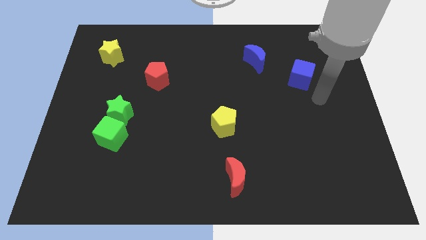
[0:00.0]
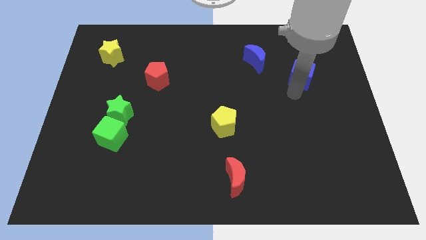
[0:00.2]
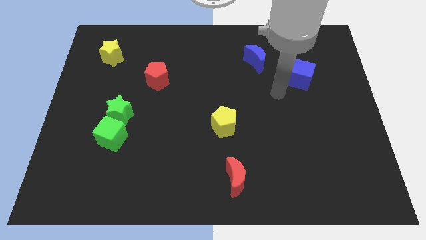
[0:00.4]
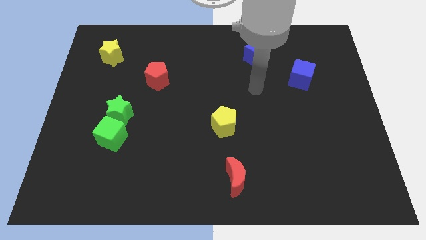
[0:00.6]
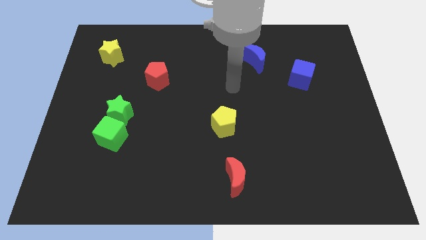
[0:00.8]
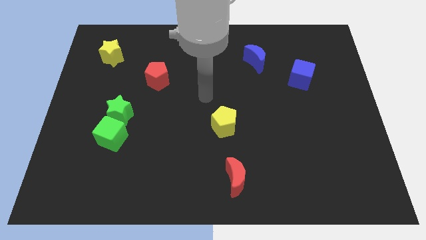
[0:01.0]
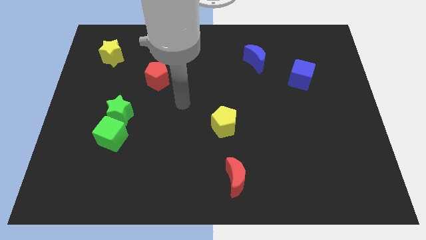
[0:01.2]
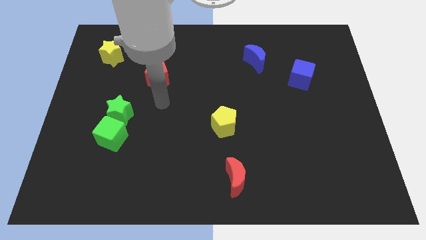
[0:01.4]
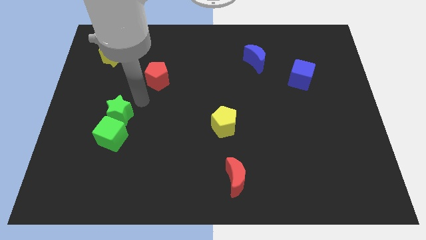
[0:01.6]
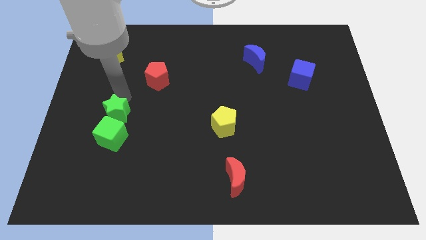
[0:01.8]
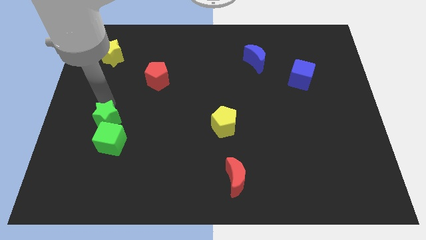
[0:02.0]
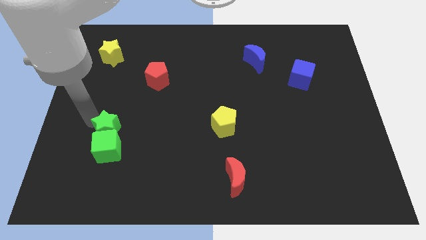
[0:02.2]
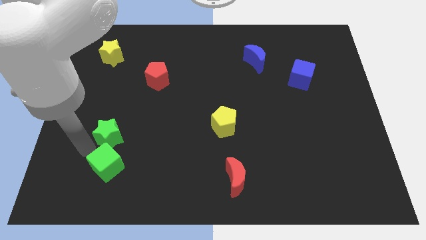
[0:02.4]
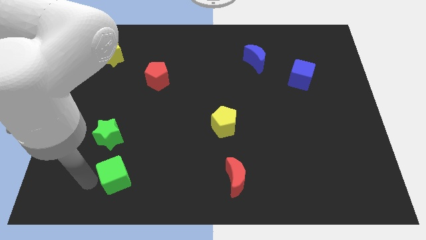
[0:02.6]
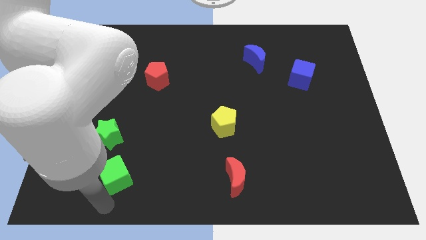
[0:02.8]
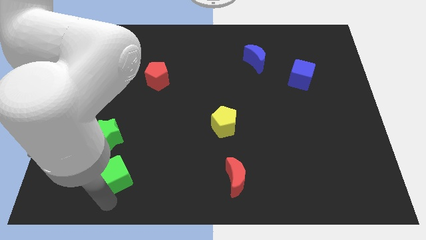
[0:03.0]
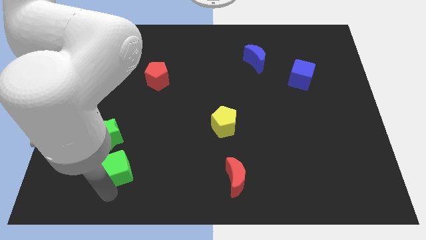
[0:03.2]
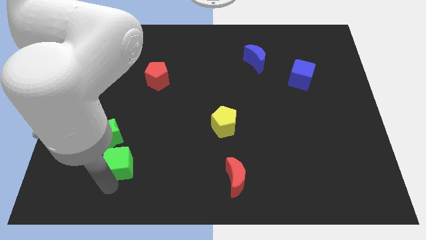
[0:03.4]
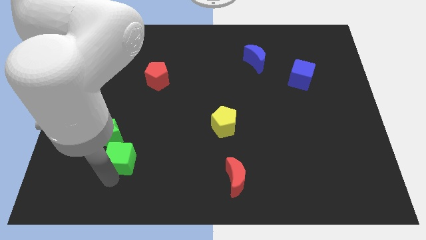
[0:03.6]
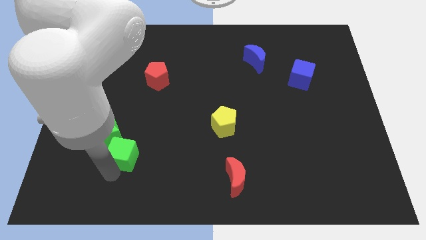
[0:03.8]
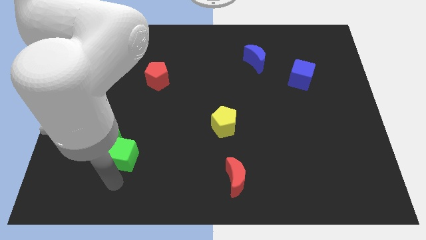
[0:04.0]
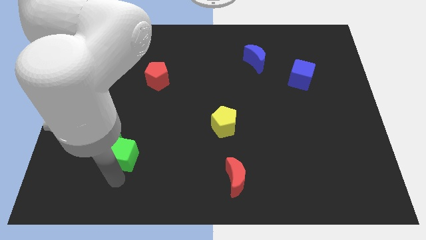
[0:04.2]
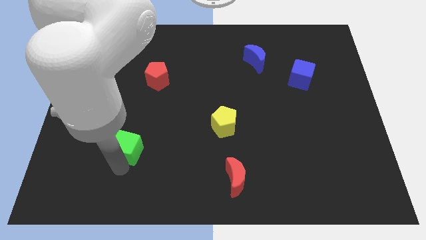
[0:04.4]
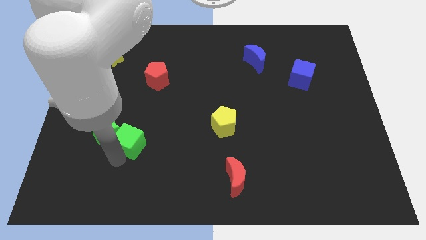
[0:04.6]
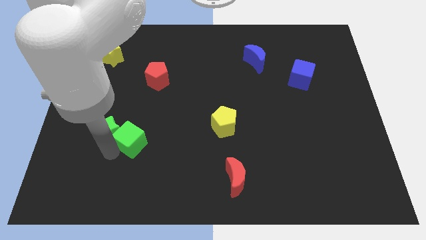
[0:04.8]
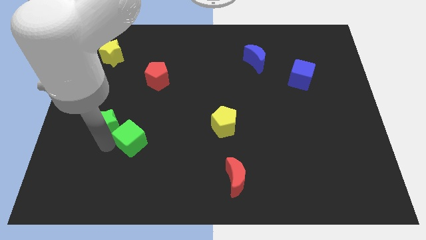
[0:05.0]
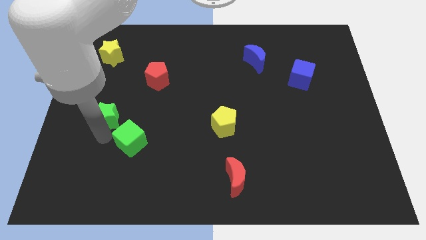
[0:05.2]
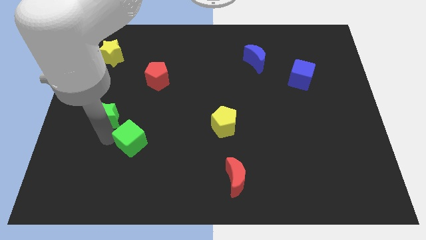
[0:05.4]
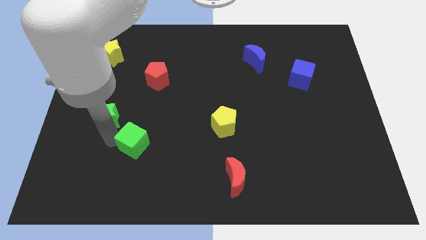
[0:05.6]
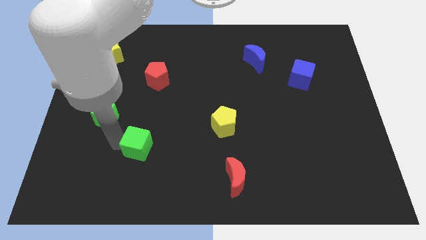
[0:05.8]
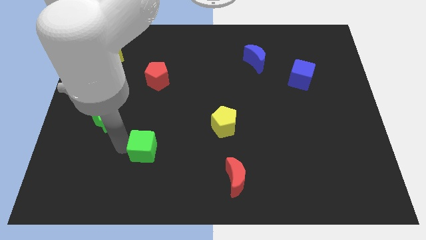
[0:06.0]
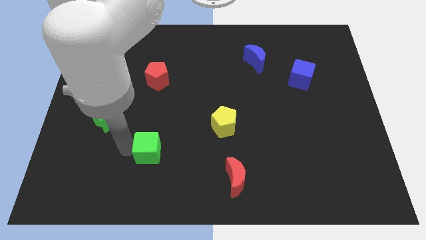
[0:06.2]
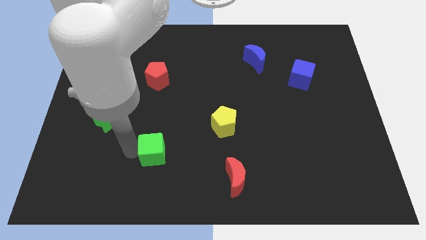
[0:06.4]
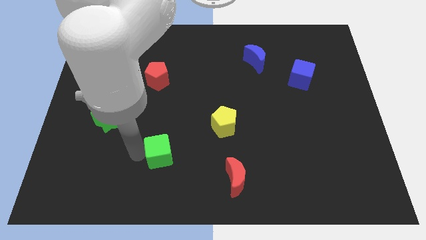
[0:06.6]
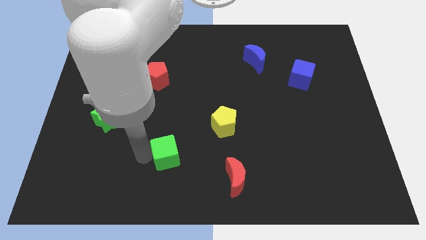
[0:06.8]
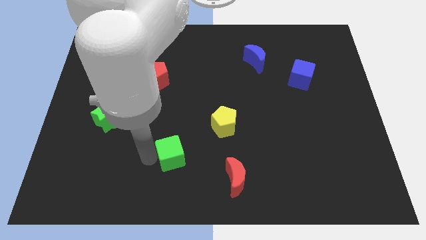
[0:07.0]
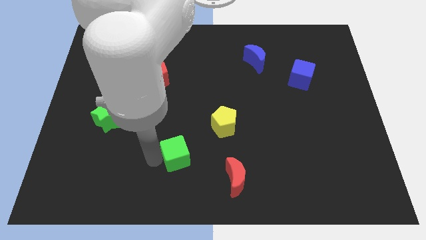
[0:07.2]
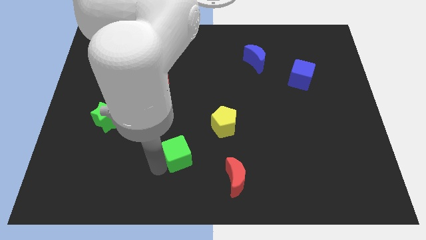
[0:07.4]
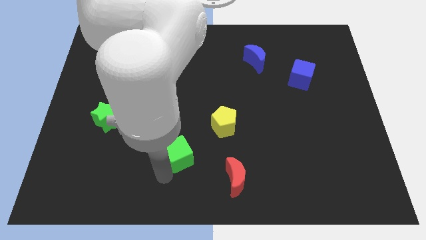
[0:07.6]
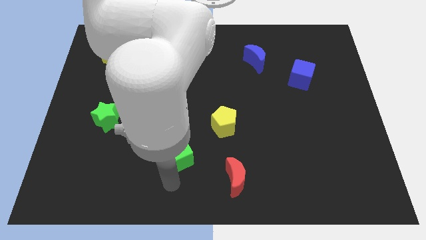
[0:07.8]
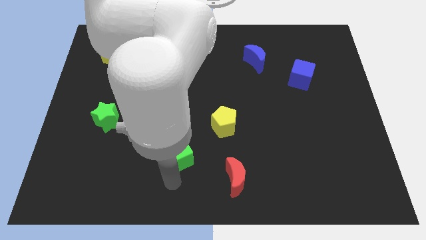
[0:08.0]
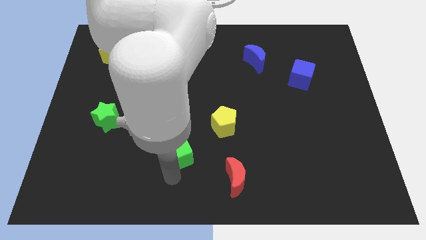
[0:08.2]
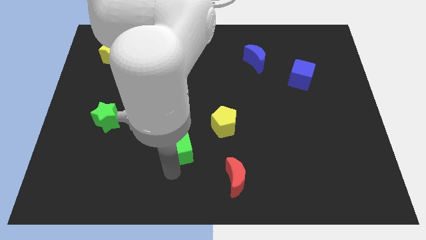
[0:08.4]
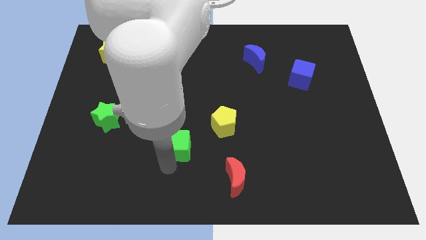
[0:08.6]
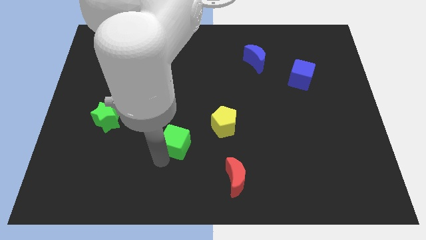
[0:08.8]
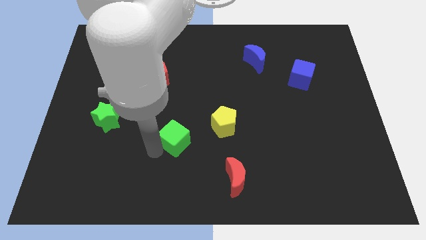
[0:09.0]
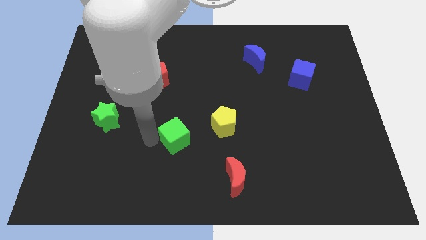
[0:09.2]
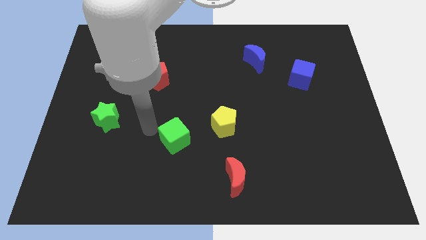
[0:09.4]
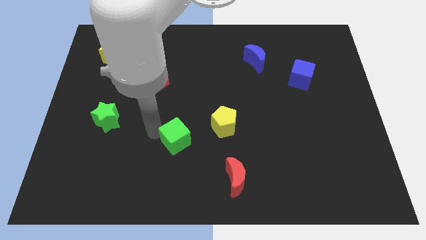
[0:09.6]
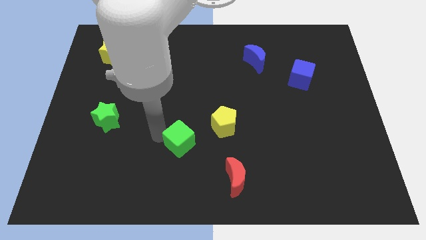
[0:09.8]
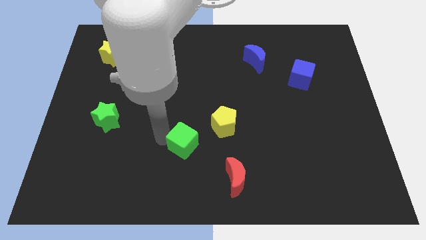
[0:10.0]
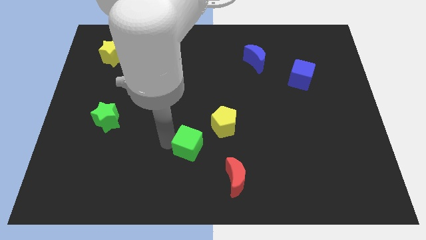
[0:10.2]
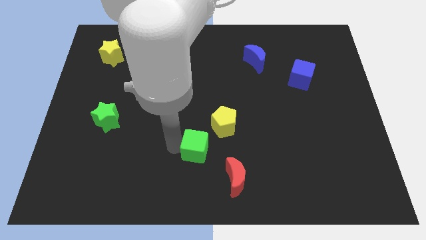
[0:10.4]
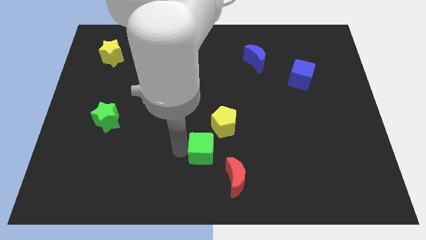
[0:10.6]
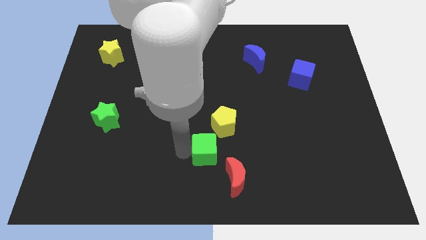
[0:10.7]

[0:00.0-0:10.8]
push the green cube to the right

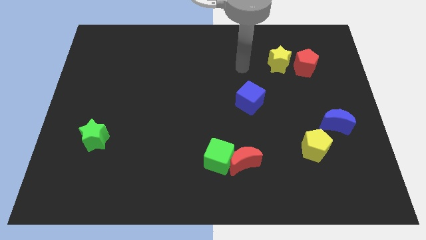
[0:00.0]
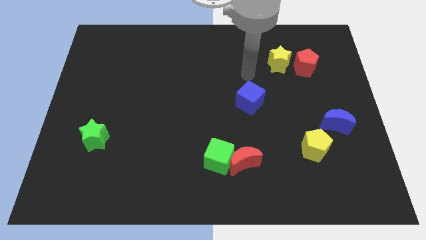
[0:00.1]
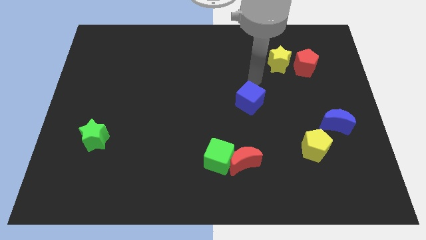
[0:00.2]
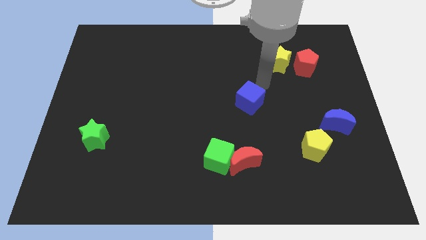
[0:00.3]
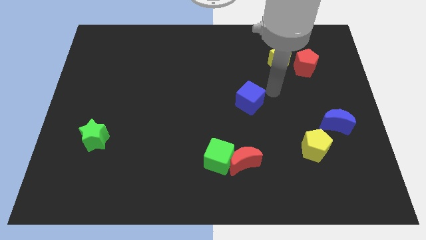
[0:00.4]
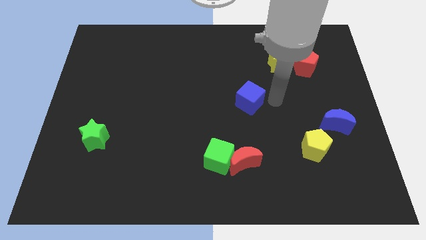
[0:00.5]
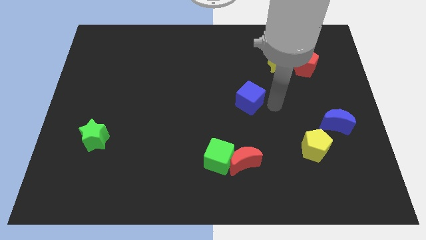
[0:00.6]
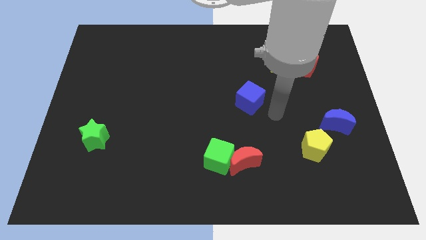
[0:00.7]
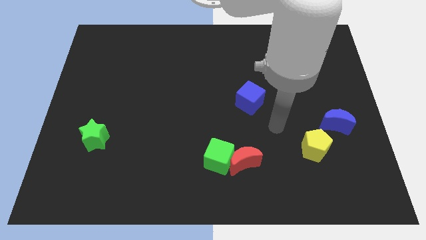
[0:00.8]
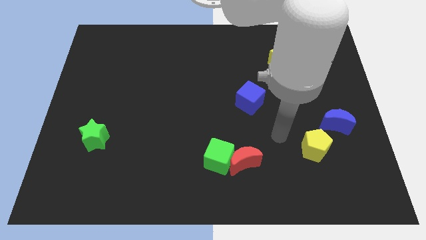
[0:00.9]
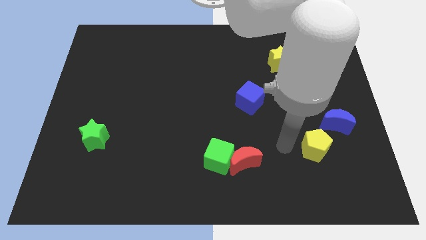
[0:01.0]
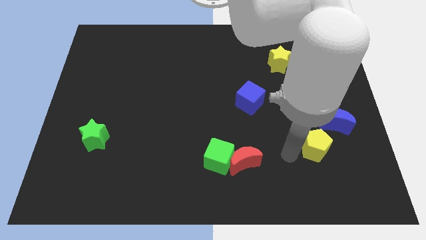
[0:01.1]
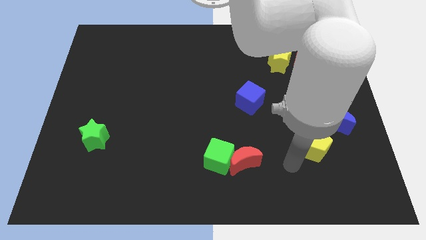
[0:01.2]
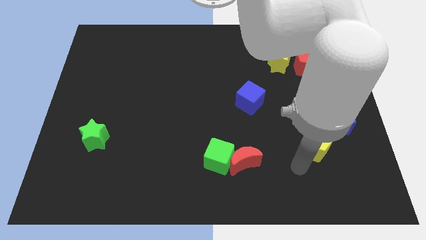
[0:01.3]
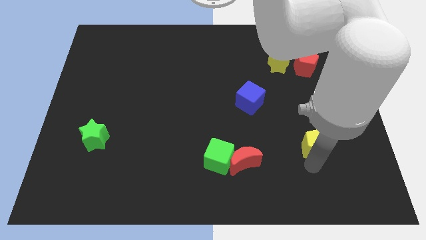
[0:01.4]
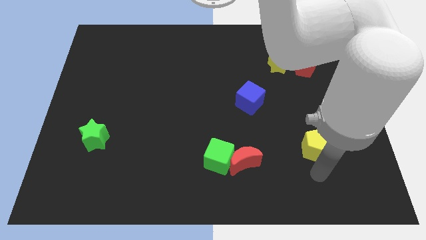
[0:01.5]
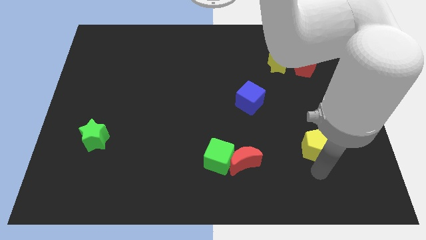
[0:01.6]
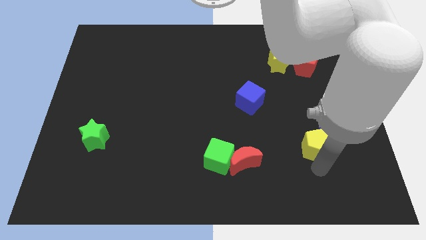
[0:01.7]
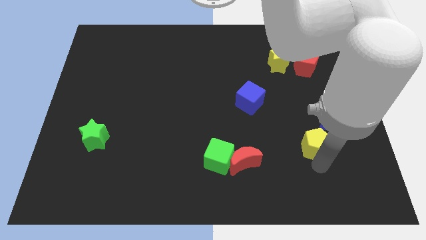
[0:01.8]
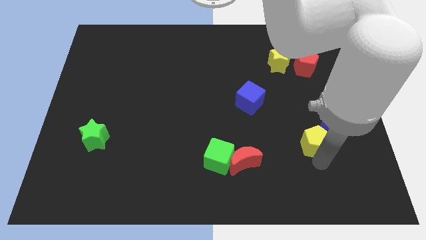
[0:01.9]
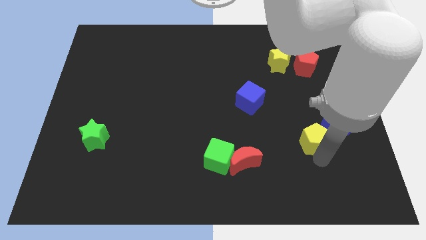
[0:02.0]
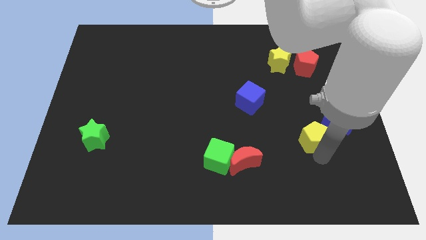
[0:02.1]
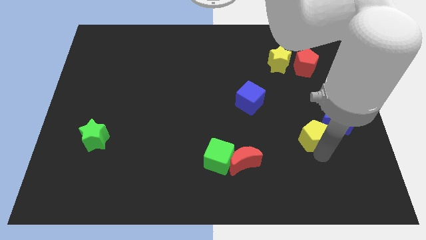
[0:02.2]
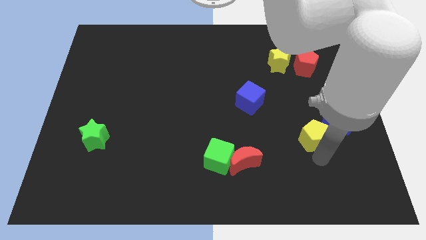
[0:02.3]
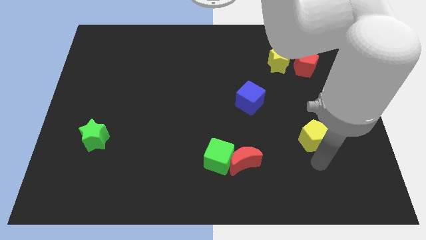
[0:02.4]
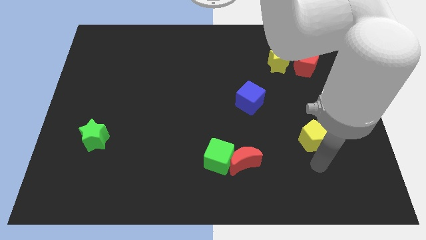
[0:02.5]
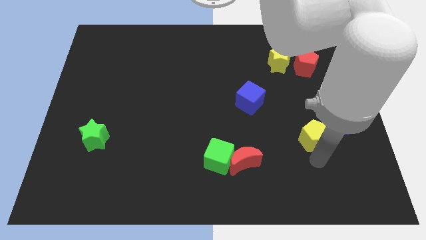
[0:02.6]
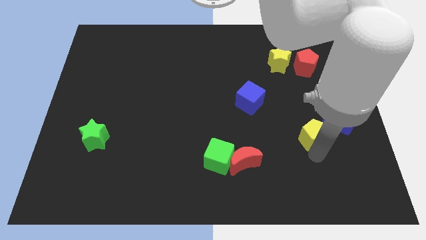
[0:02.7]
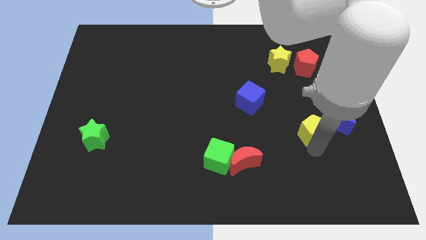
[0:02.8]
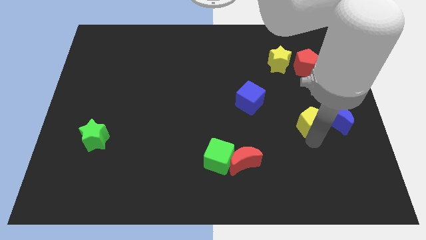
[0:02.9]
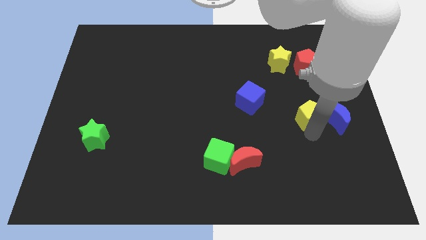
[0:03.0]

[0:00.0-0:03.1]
slightly push the yellow pentagon upwards
